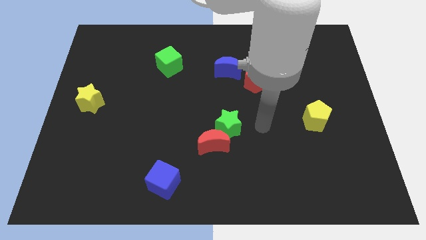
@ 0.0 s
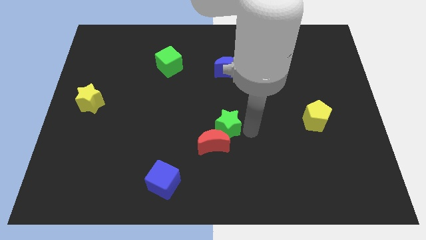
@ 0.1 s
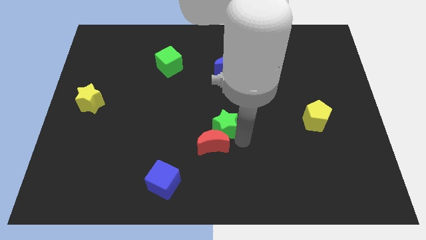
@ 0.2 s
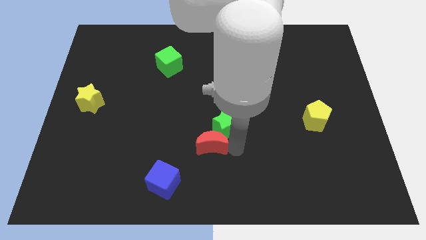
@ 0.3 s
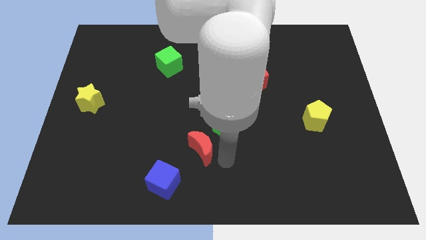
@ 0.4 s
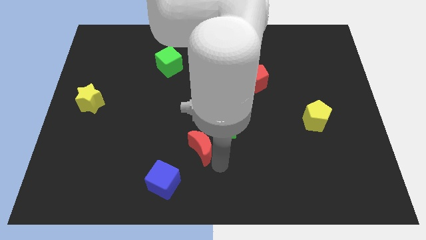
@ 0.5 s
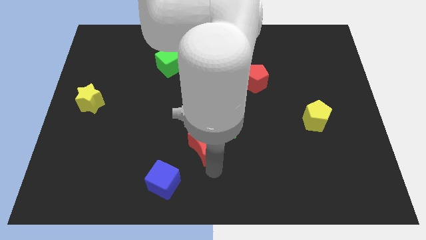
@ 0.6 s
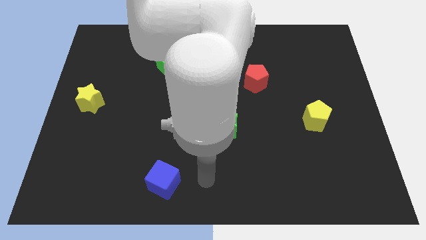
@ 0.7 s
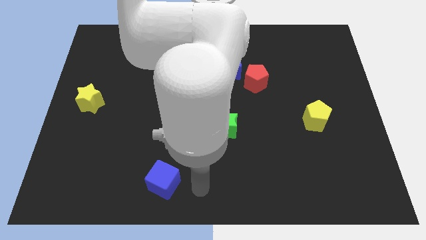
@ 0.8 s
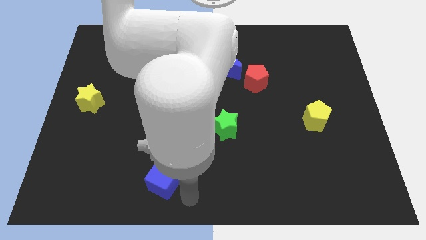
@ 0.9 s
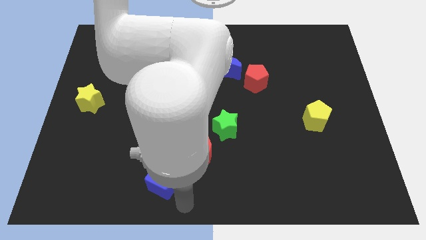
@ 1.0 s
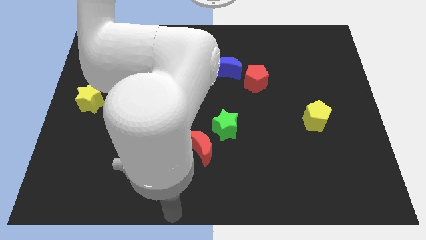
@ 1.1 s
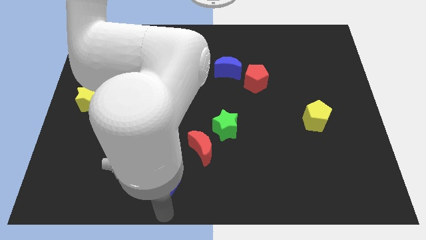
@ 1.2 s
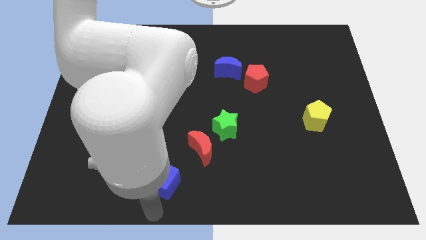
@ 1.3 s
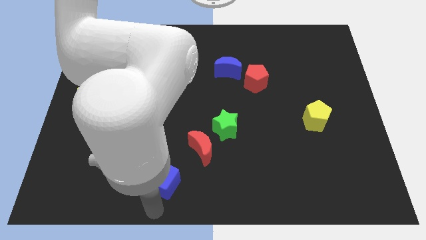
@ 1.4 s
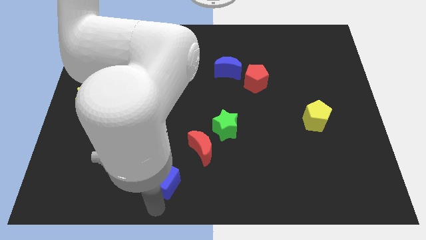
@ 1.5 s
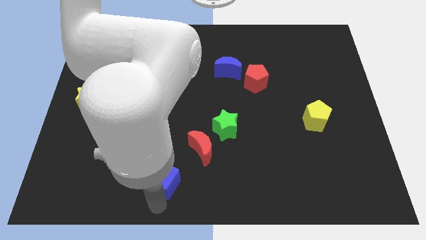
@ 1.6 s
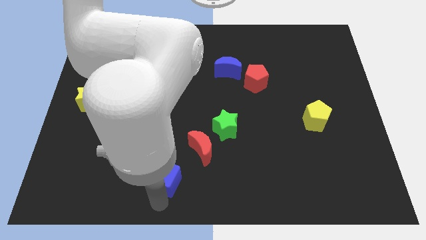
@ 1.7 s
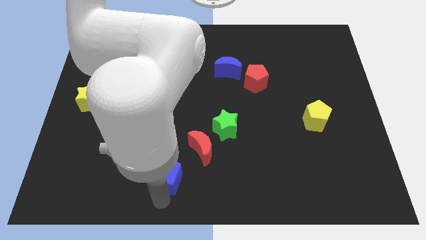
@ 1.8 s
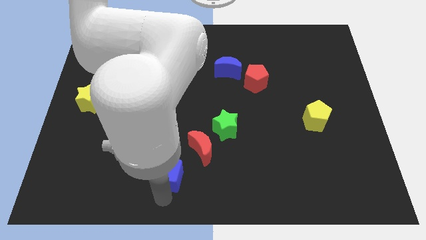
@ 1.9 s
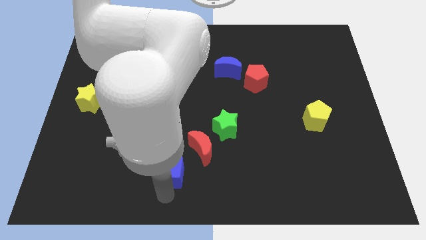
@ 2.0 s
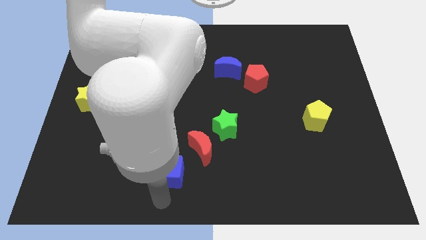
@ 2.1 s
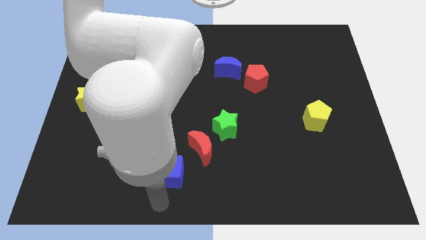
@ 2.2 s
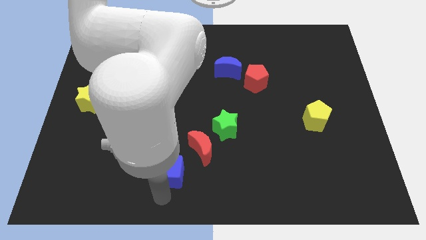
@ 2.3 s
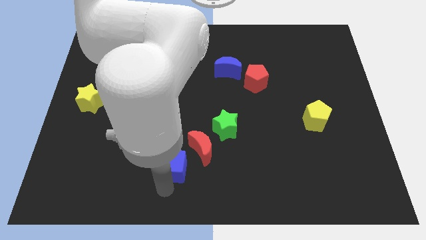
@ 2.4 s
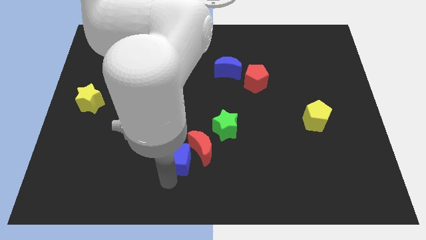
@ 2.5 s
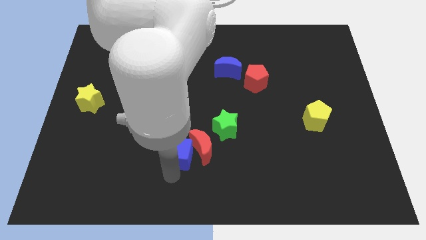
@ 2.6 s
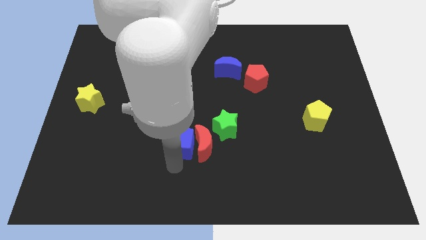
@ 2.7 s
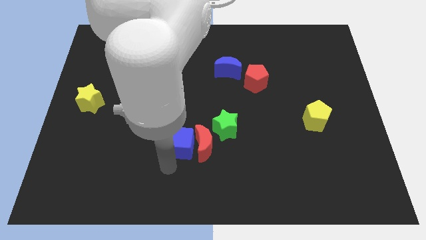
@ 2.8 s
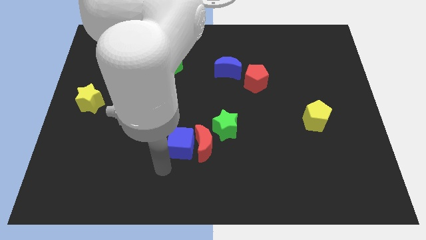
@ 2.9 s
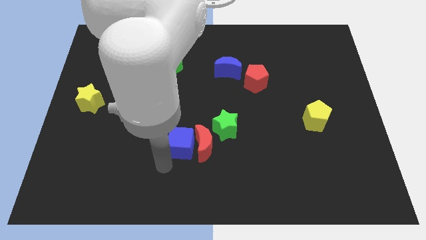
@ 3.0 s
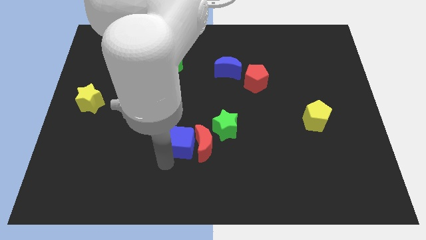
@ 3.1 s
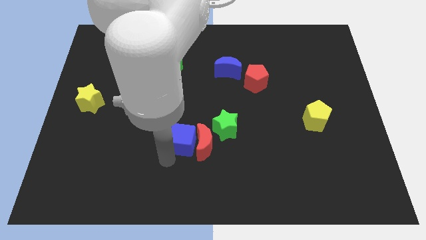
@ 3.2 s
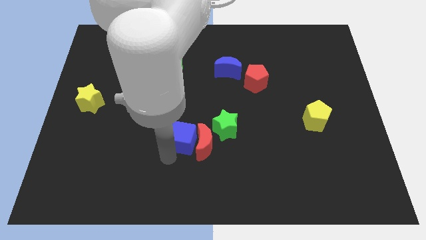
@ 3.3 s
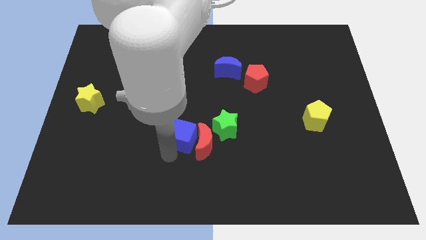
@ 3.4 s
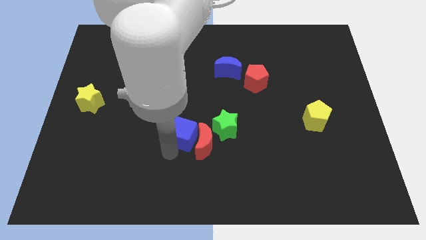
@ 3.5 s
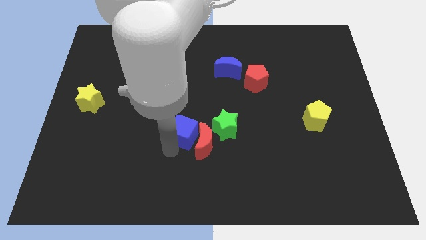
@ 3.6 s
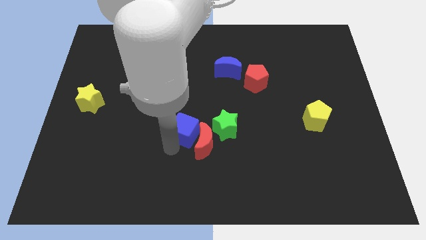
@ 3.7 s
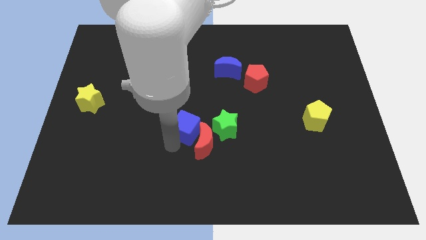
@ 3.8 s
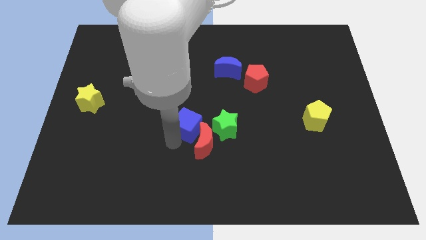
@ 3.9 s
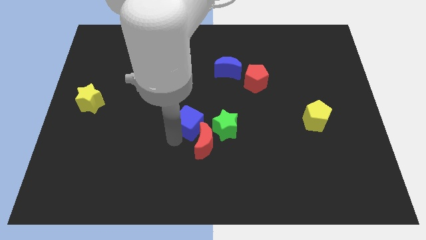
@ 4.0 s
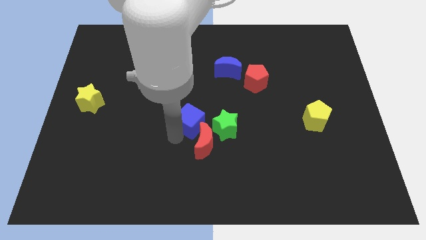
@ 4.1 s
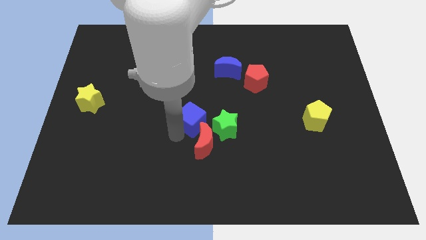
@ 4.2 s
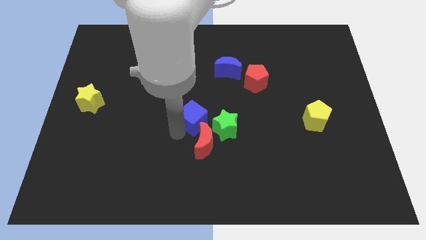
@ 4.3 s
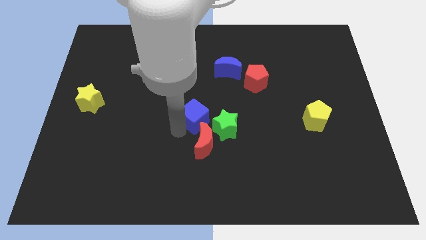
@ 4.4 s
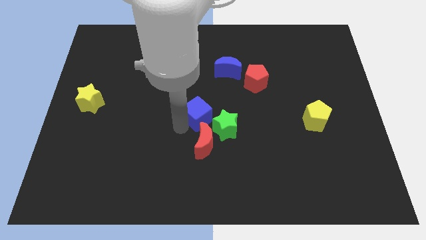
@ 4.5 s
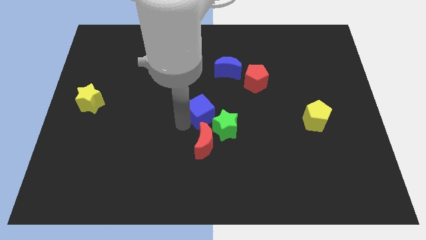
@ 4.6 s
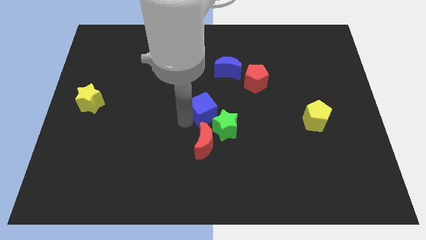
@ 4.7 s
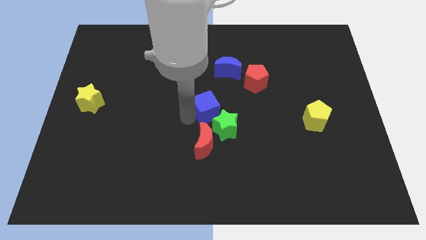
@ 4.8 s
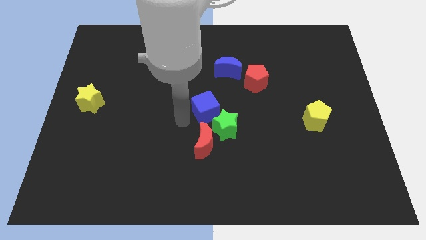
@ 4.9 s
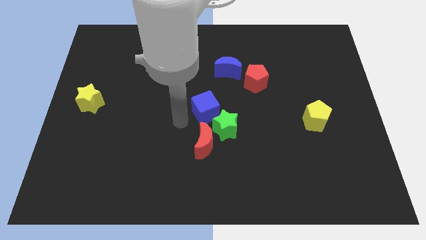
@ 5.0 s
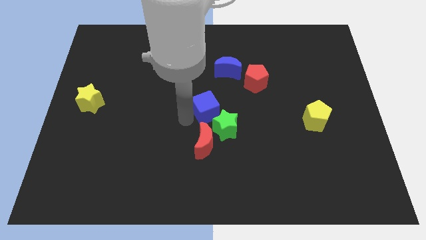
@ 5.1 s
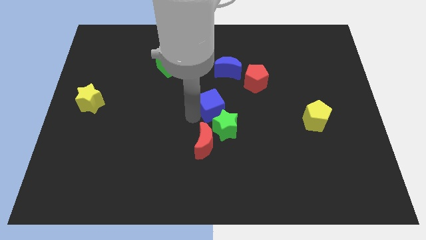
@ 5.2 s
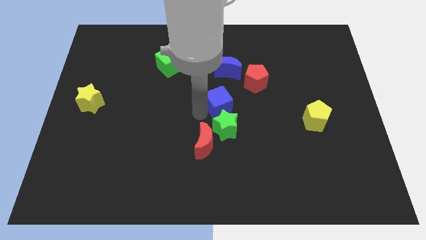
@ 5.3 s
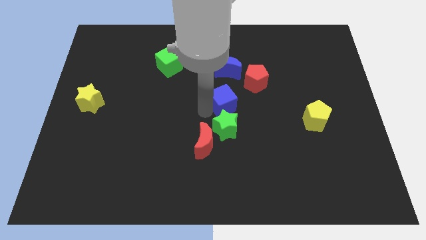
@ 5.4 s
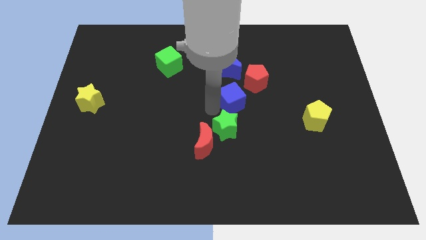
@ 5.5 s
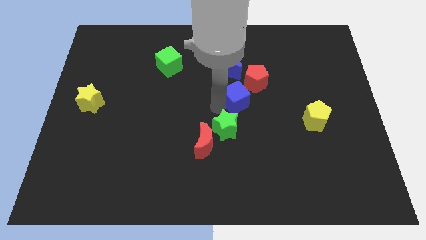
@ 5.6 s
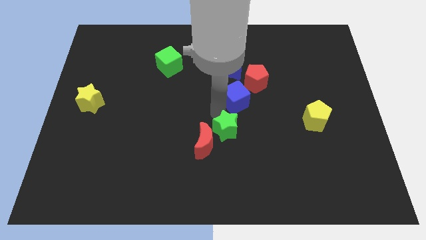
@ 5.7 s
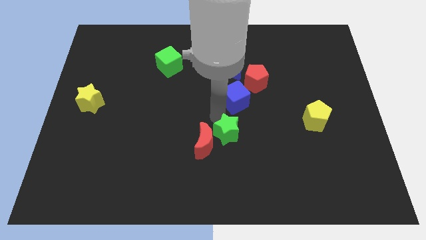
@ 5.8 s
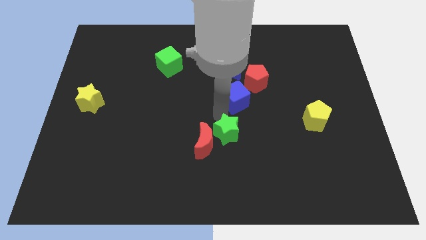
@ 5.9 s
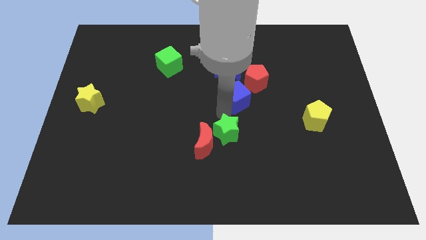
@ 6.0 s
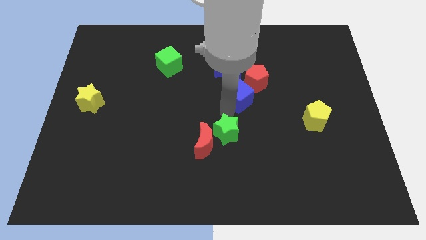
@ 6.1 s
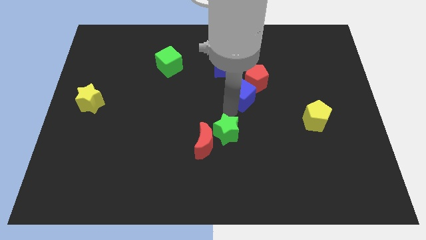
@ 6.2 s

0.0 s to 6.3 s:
move the blue cube close to the red pentagon

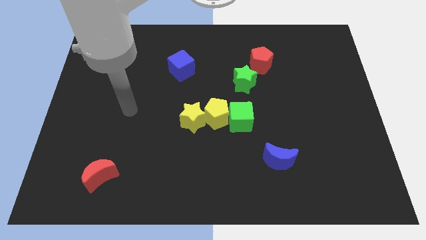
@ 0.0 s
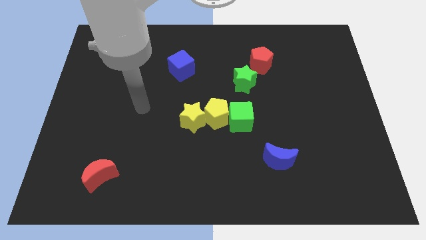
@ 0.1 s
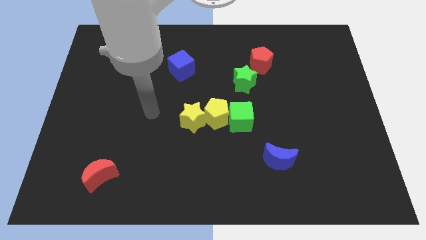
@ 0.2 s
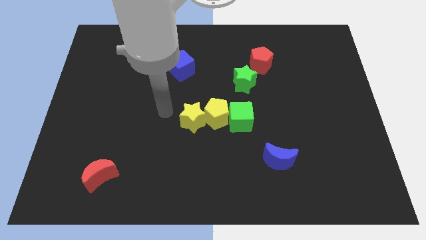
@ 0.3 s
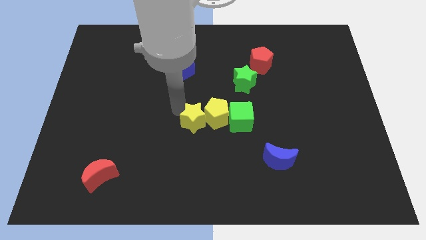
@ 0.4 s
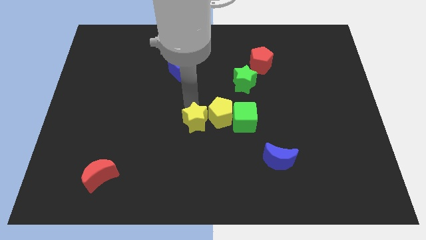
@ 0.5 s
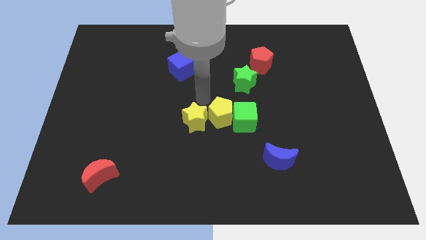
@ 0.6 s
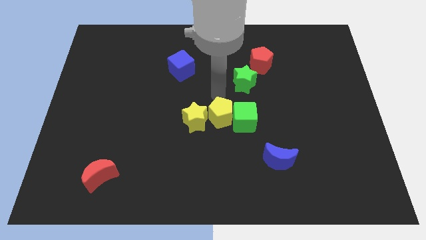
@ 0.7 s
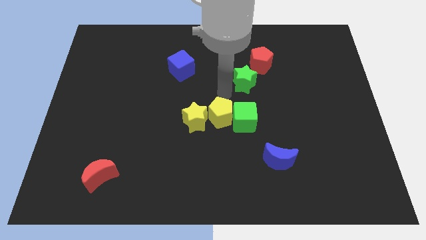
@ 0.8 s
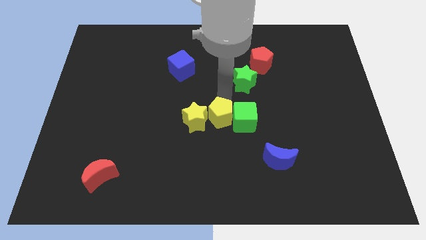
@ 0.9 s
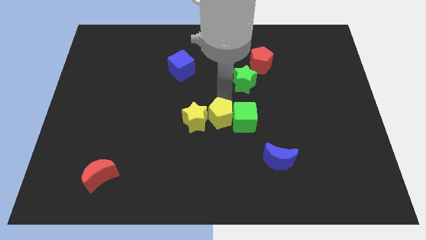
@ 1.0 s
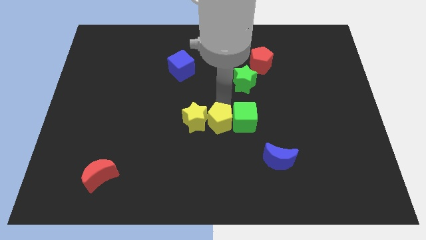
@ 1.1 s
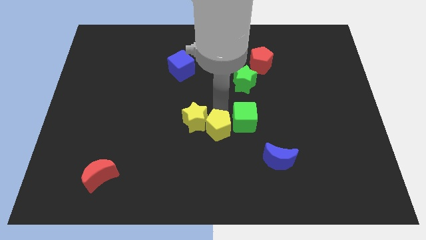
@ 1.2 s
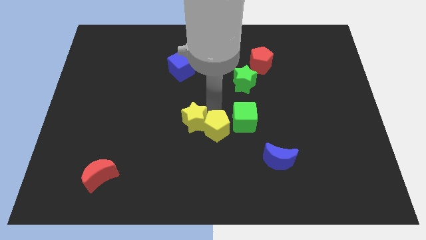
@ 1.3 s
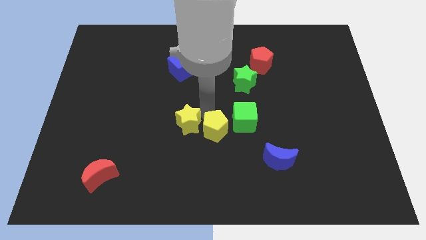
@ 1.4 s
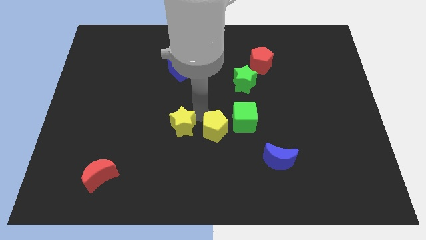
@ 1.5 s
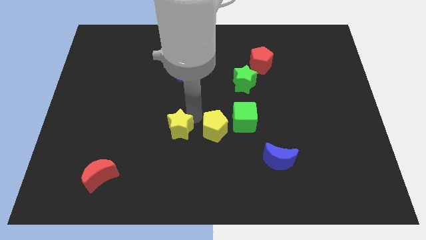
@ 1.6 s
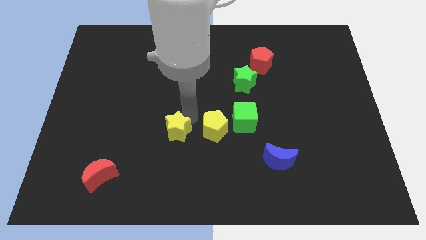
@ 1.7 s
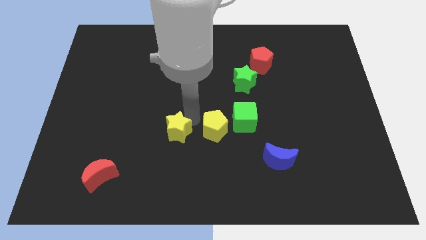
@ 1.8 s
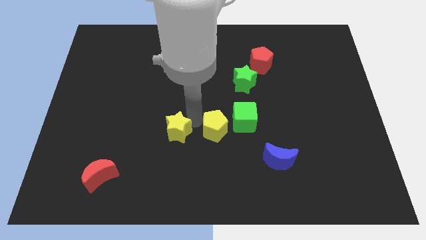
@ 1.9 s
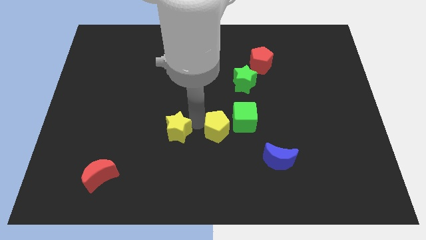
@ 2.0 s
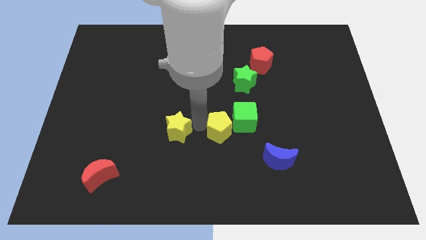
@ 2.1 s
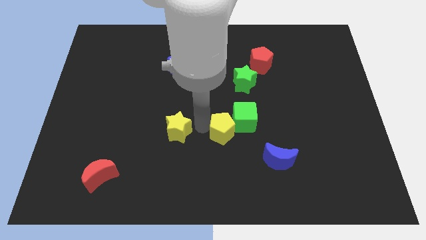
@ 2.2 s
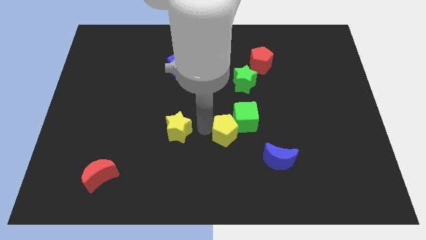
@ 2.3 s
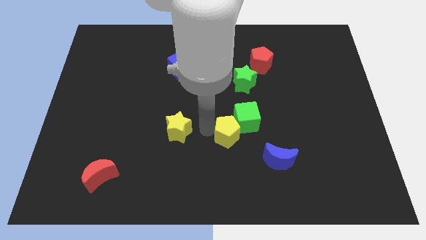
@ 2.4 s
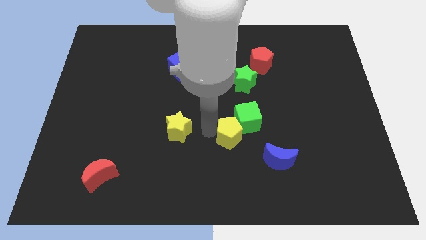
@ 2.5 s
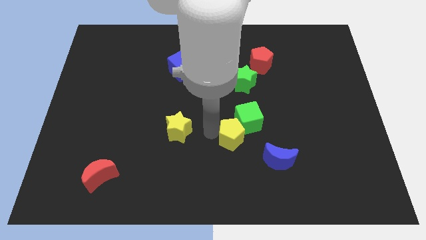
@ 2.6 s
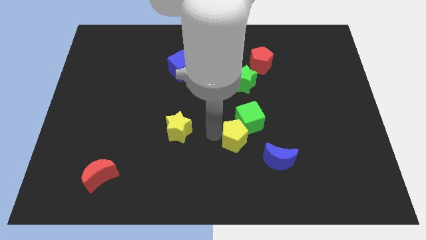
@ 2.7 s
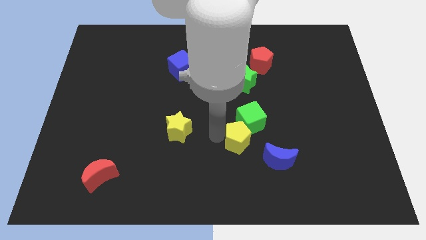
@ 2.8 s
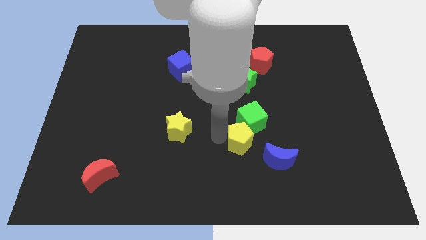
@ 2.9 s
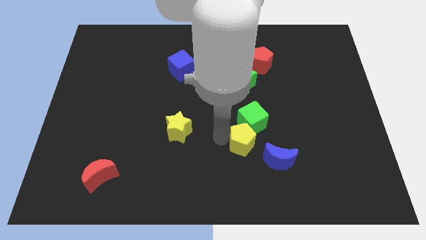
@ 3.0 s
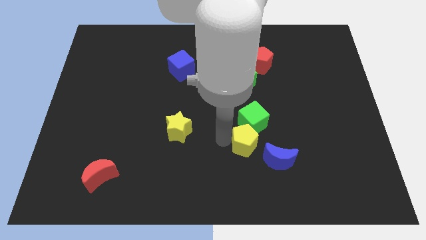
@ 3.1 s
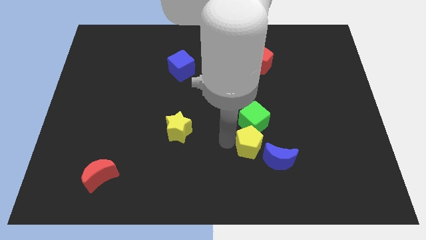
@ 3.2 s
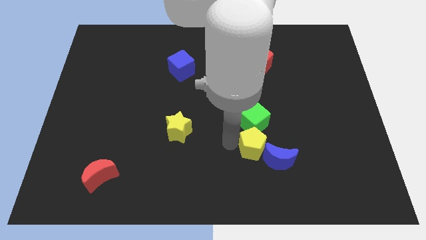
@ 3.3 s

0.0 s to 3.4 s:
put the yellow pentagon to the blue moon
